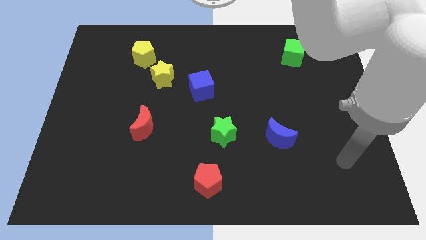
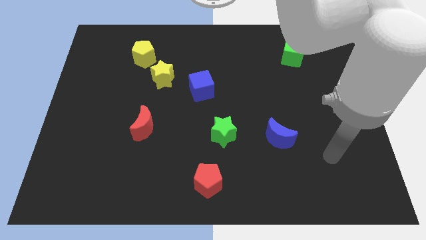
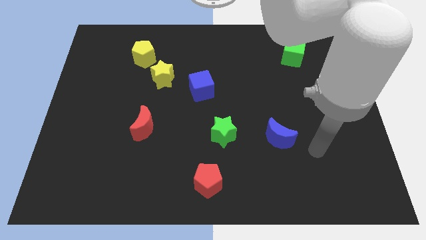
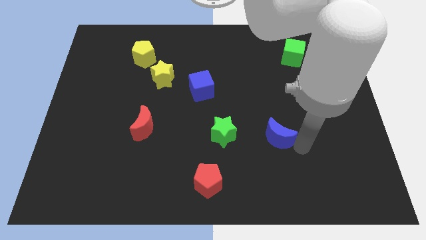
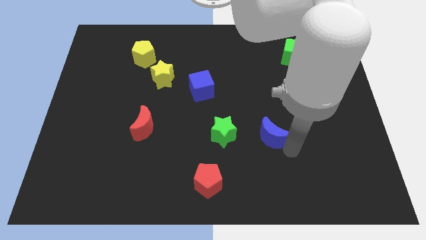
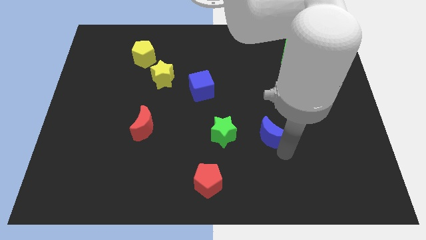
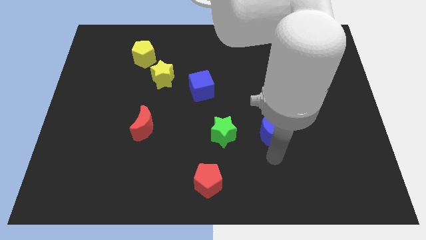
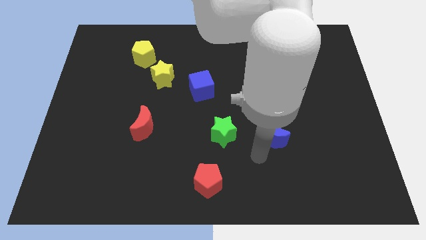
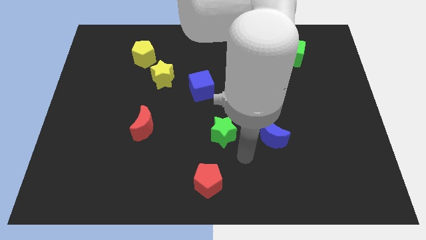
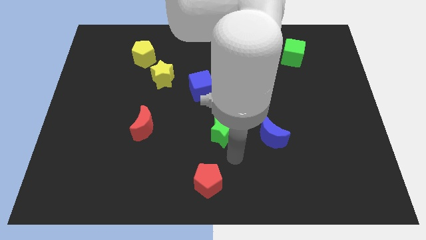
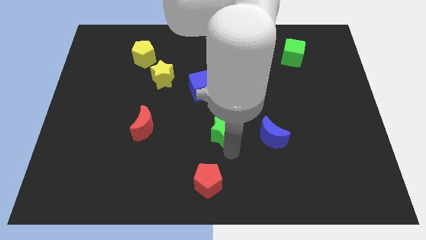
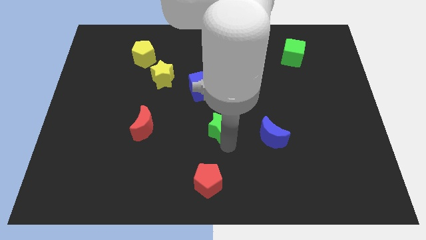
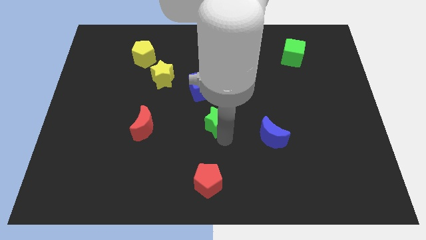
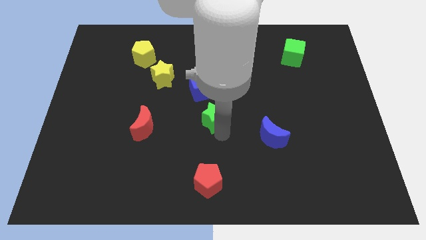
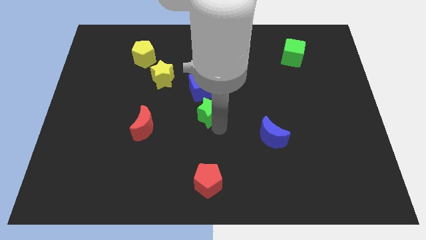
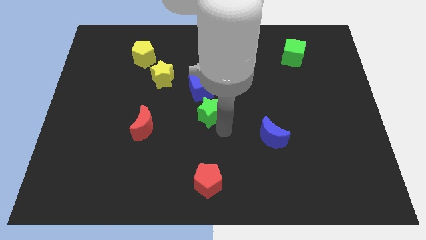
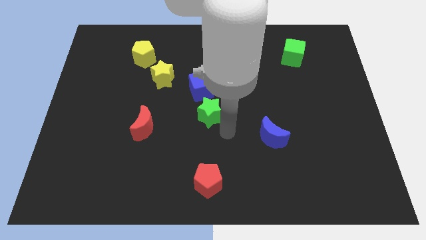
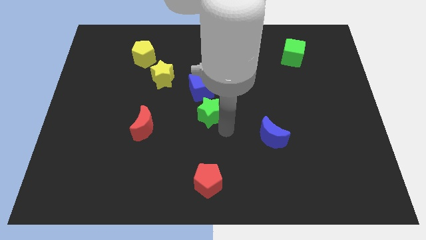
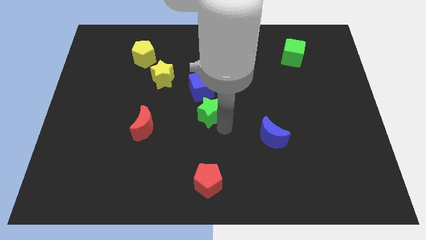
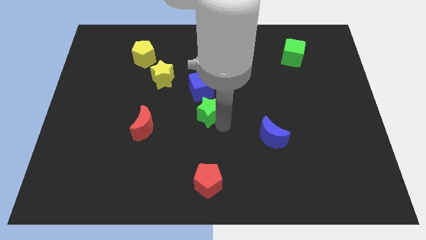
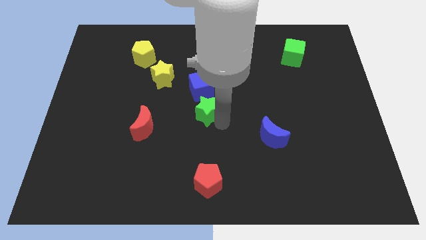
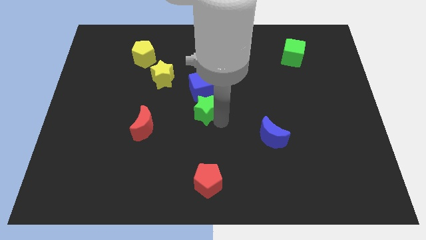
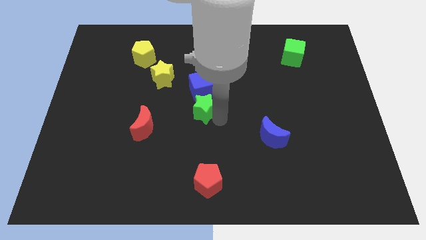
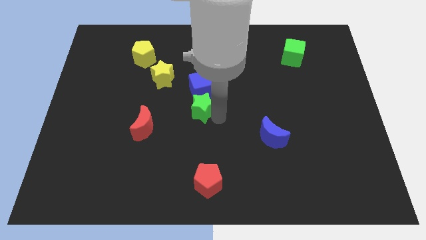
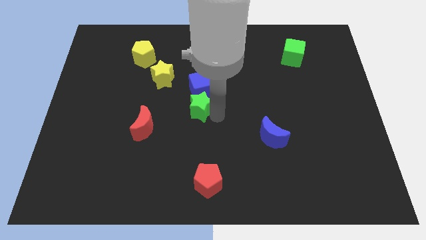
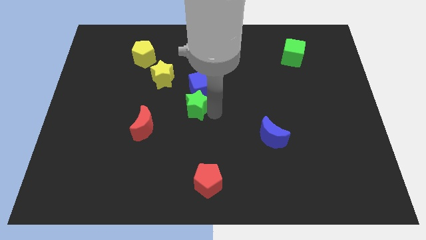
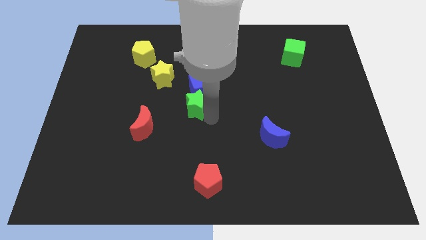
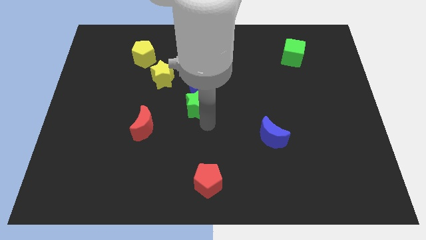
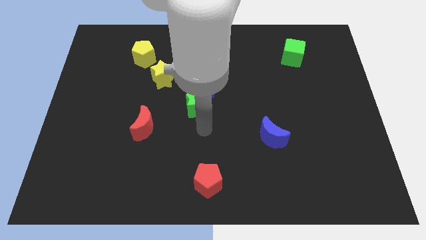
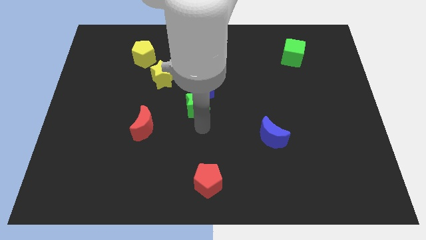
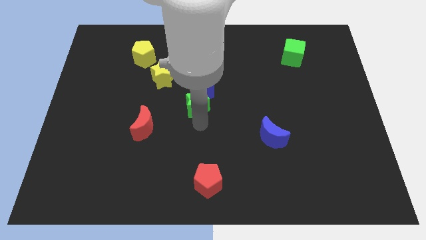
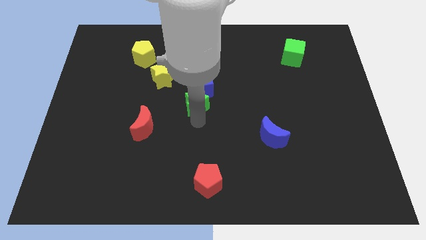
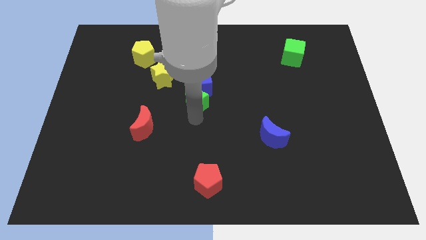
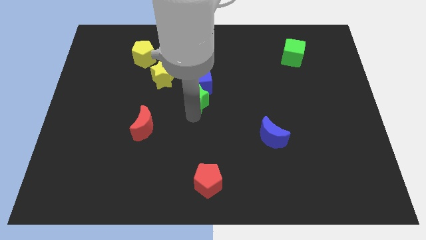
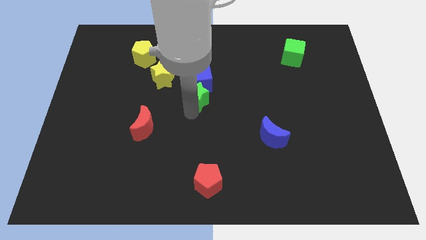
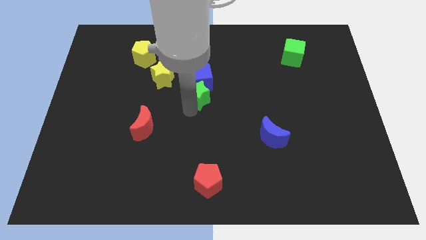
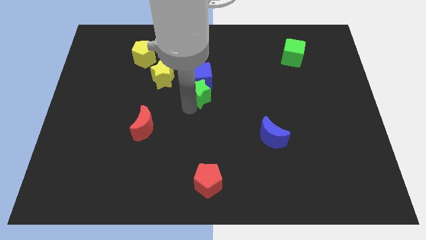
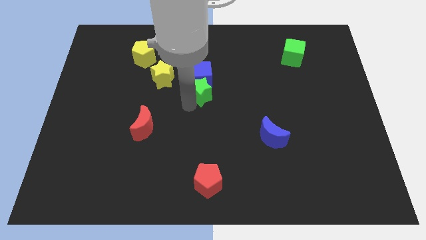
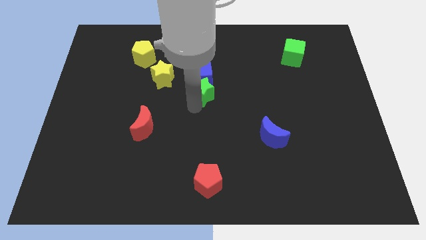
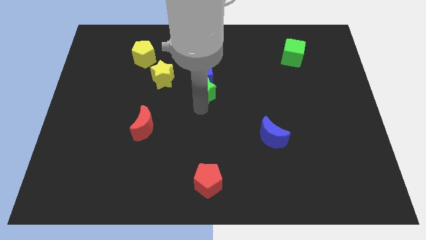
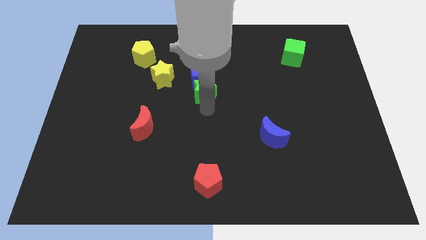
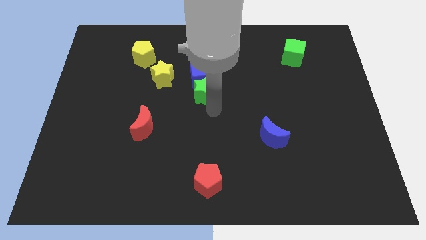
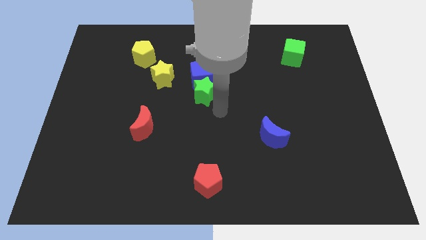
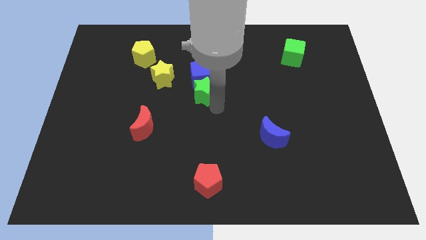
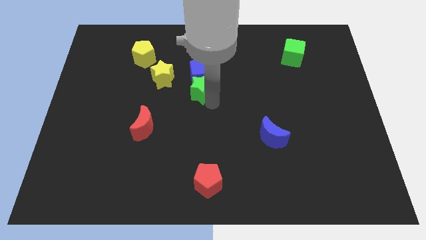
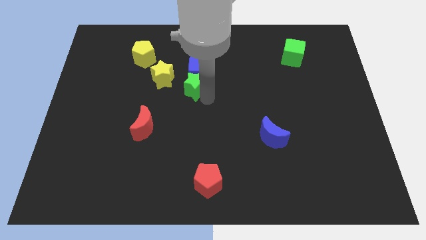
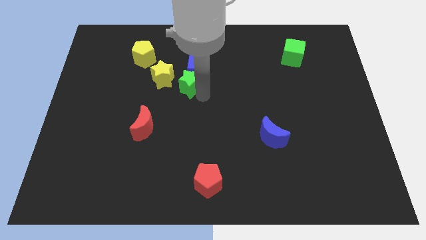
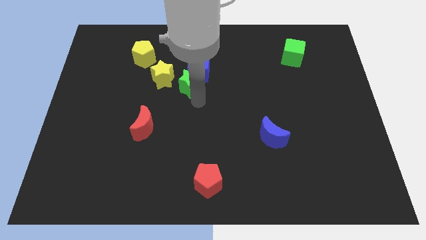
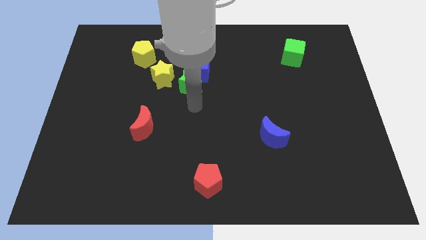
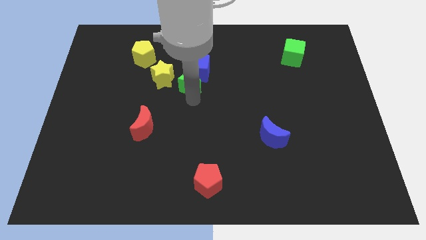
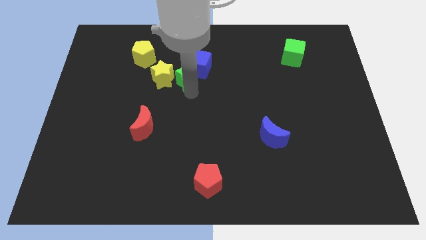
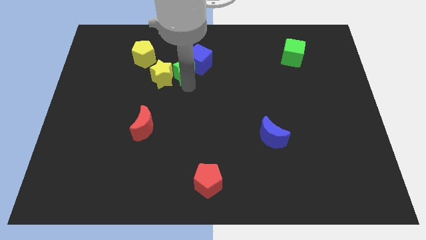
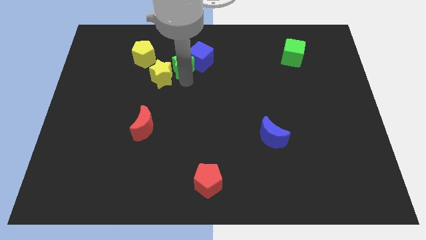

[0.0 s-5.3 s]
push the green star to the right of the yellow pentagon

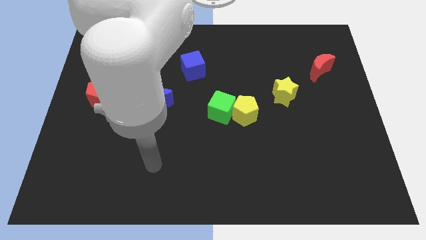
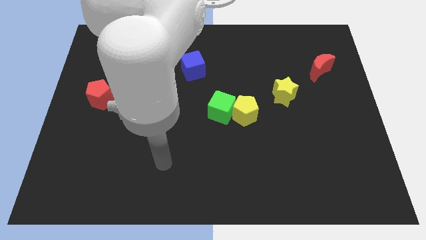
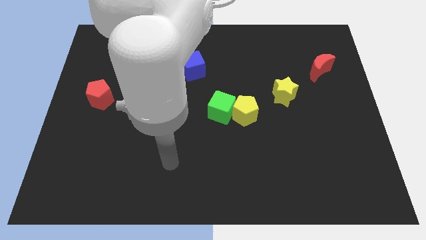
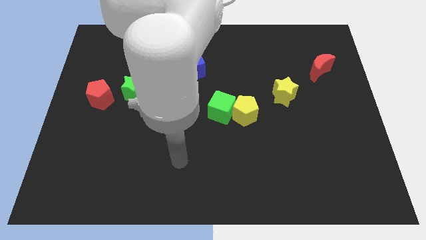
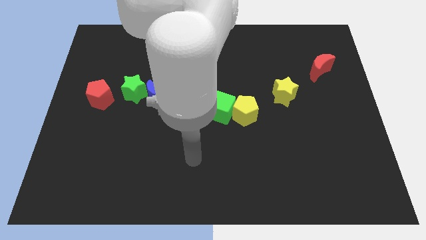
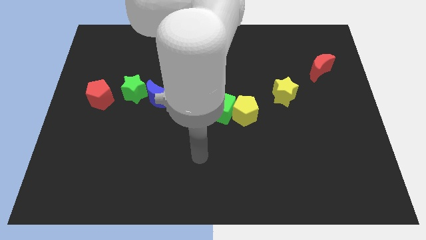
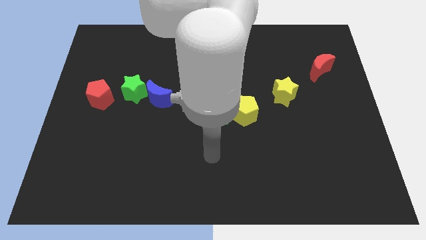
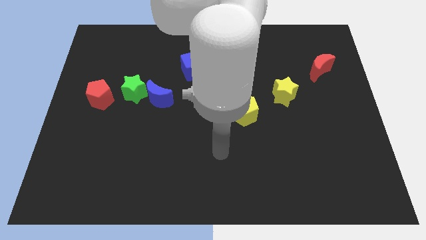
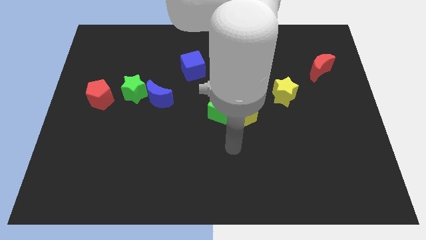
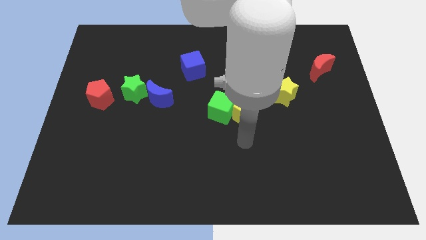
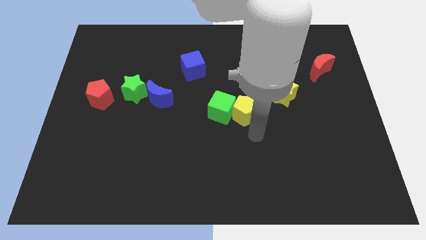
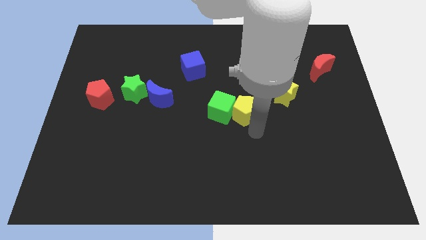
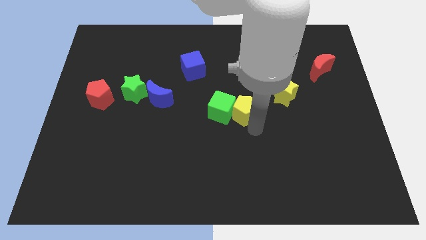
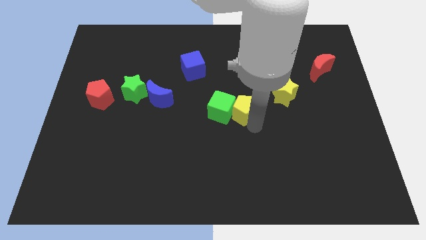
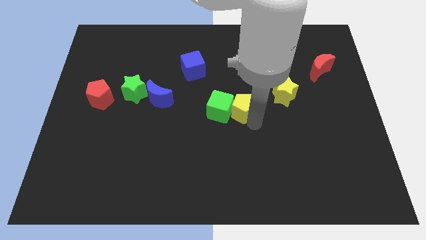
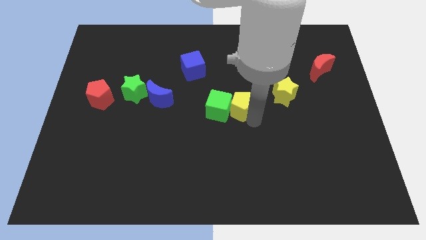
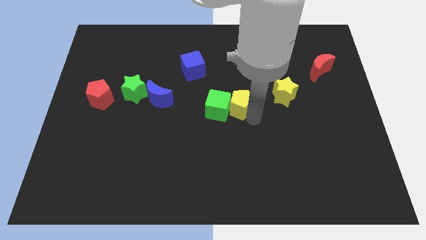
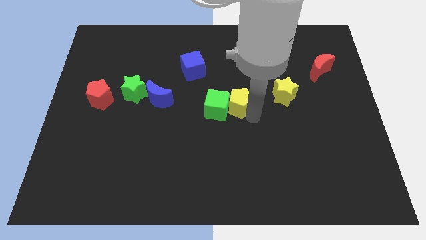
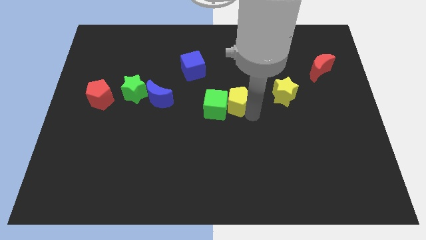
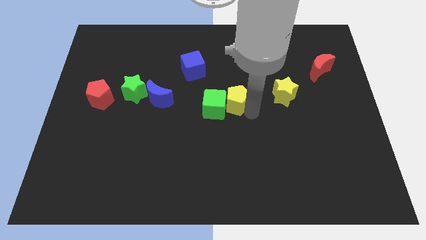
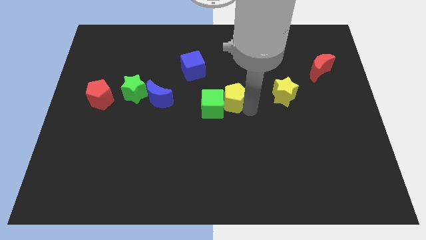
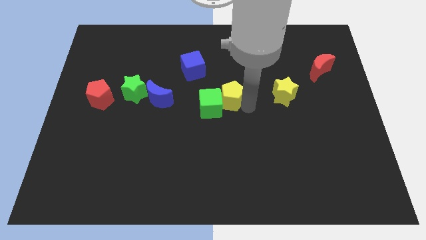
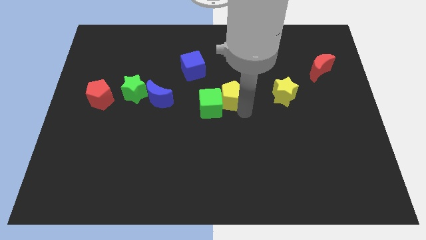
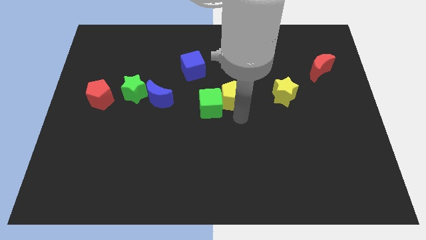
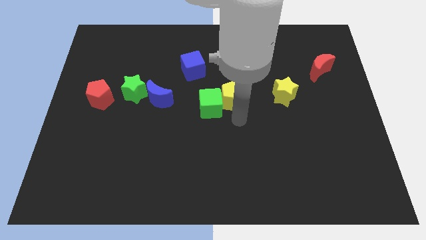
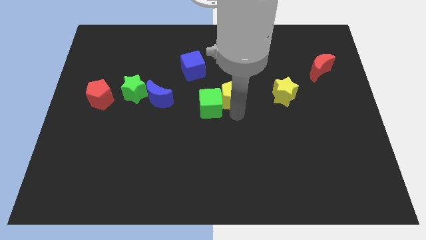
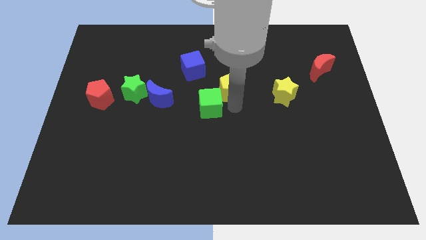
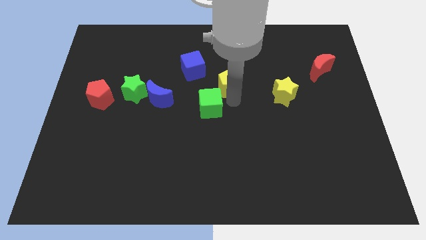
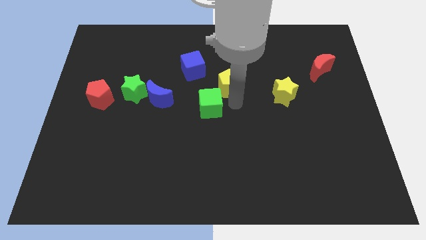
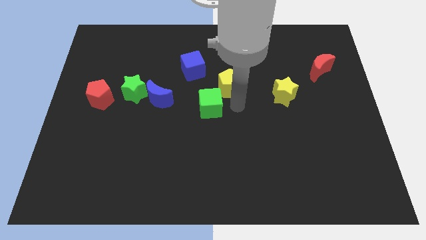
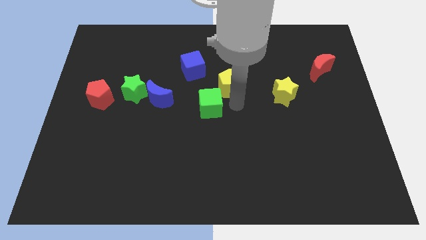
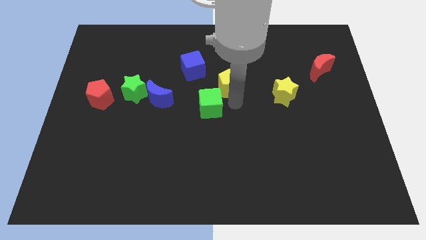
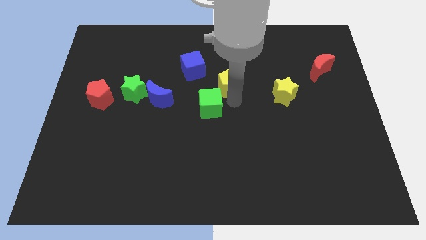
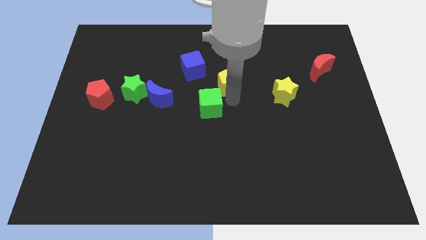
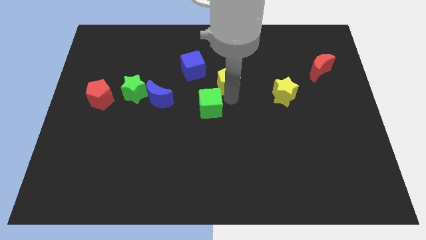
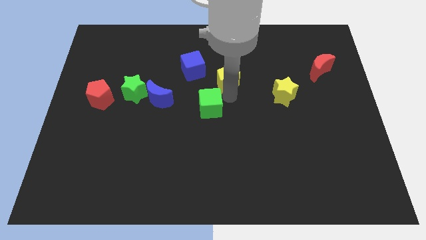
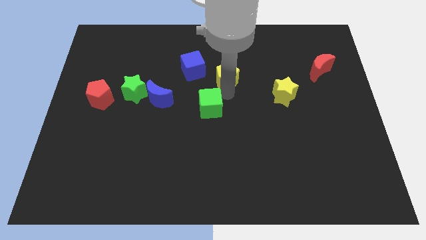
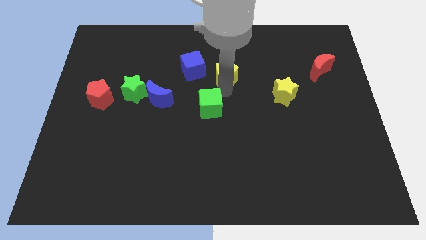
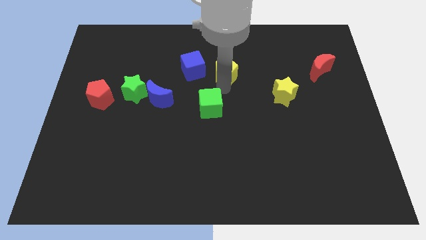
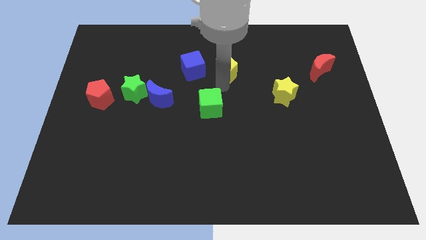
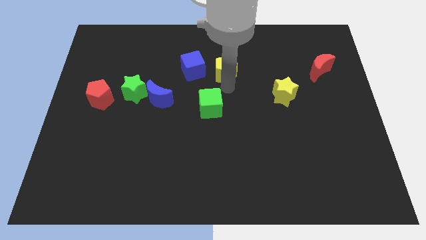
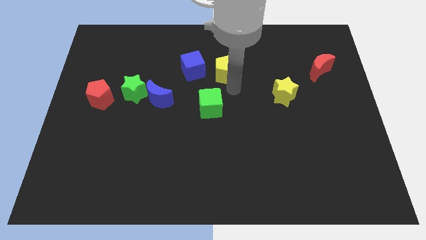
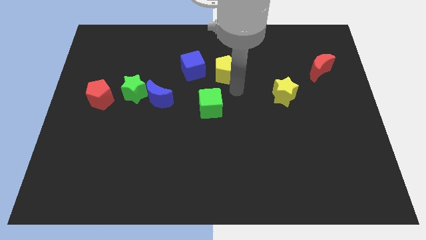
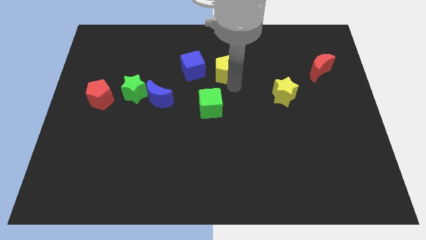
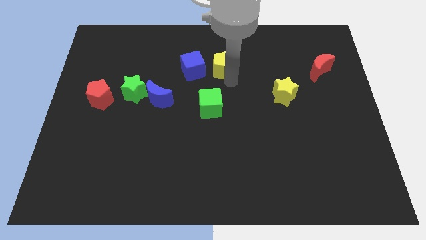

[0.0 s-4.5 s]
move the yellow pentagon to the top right of the blue cube
